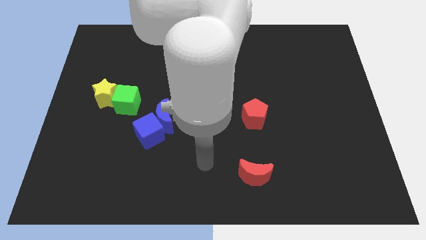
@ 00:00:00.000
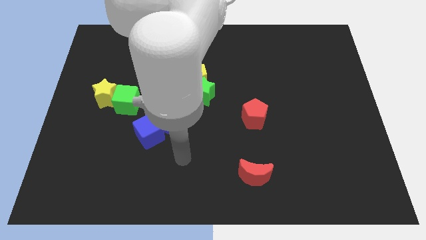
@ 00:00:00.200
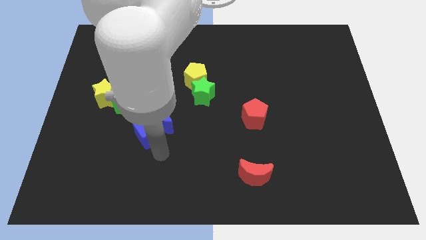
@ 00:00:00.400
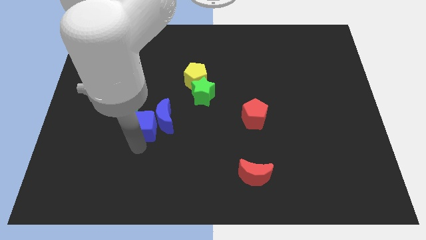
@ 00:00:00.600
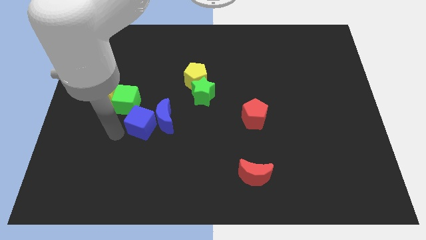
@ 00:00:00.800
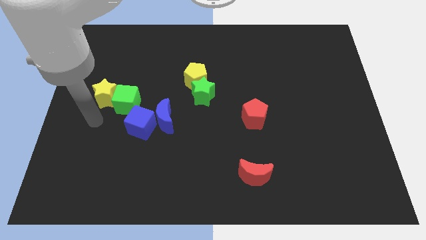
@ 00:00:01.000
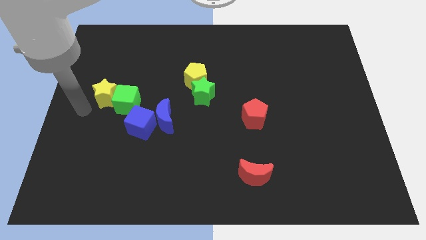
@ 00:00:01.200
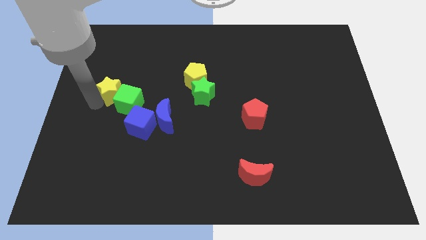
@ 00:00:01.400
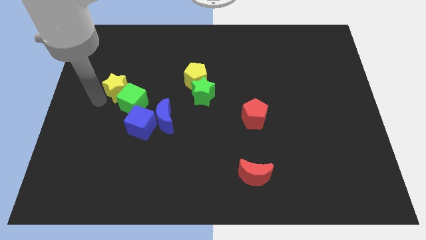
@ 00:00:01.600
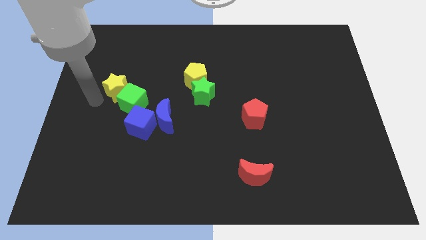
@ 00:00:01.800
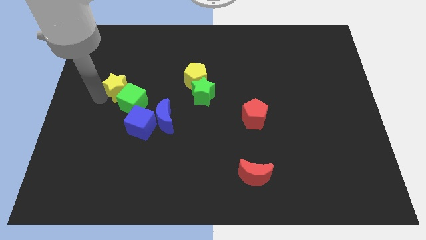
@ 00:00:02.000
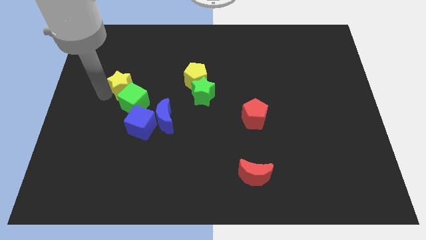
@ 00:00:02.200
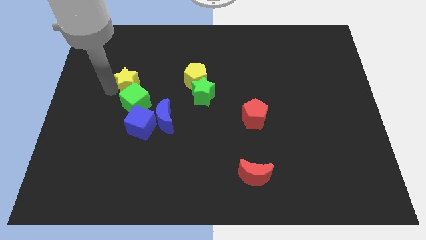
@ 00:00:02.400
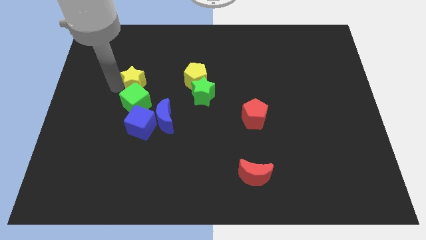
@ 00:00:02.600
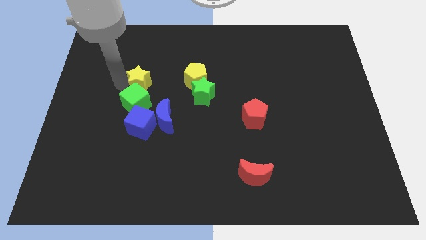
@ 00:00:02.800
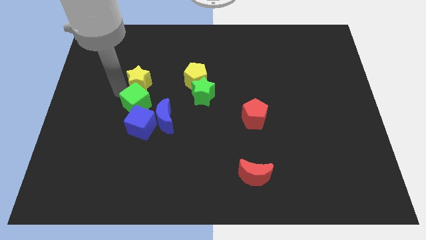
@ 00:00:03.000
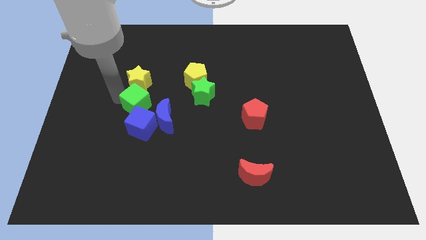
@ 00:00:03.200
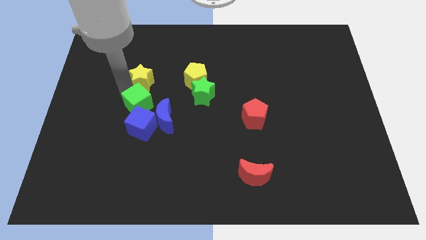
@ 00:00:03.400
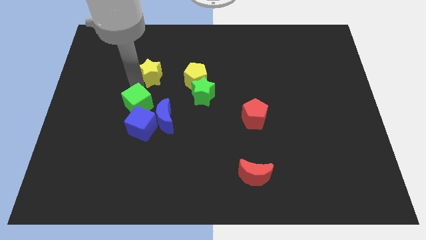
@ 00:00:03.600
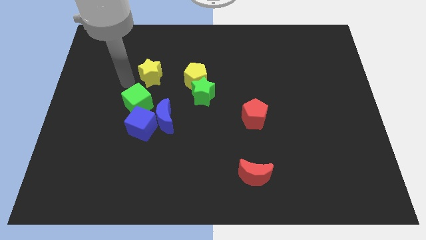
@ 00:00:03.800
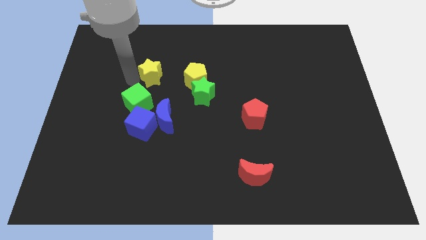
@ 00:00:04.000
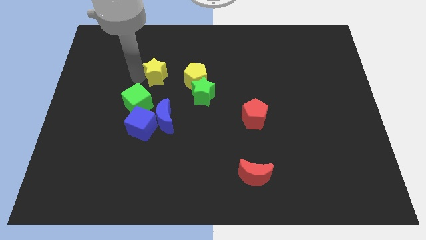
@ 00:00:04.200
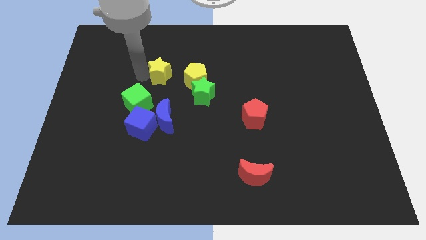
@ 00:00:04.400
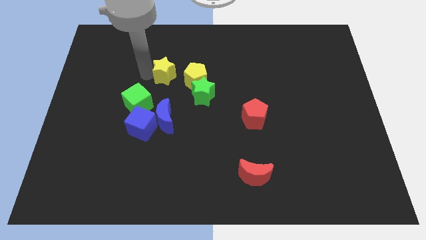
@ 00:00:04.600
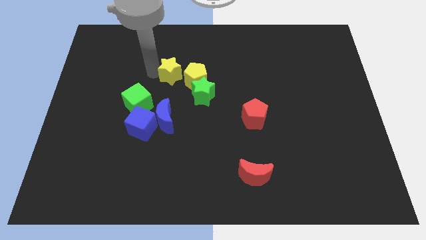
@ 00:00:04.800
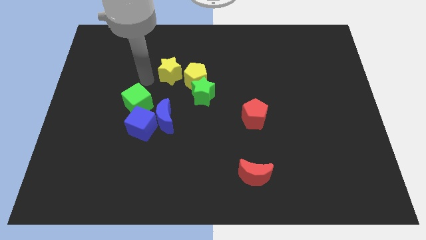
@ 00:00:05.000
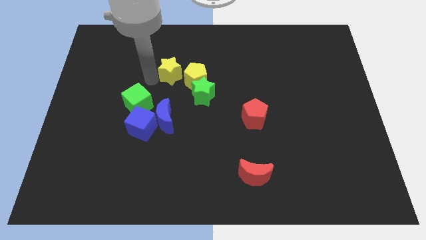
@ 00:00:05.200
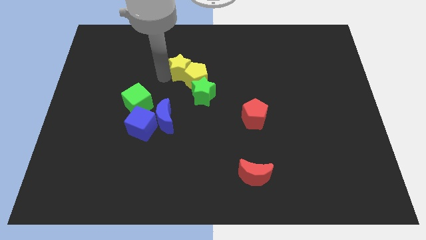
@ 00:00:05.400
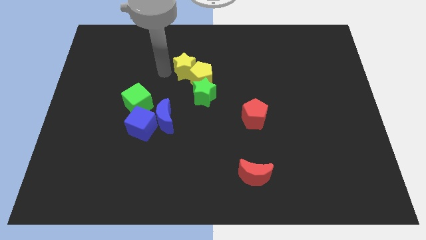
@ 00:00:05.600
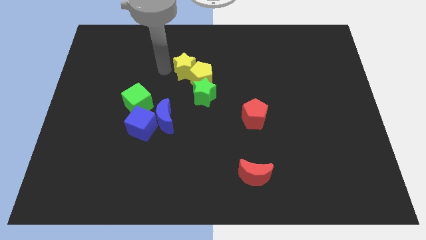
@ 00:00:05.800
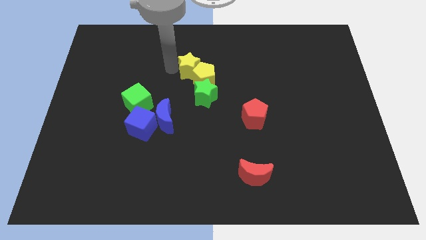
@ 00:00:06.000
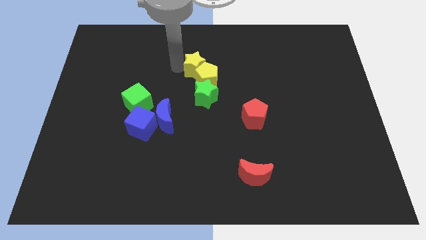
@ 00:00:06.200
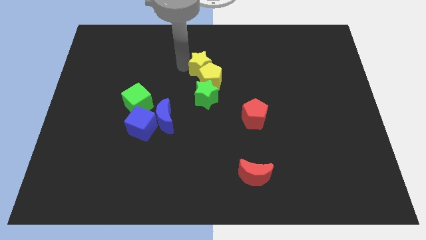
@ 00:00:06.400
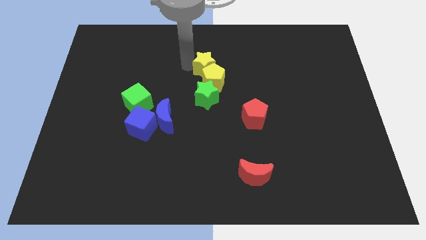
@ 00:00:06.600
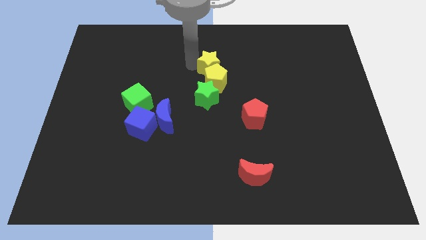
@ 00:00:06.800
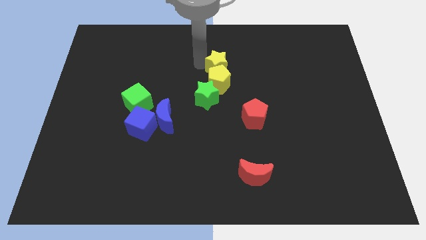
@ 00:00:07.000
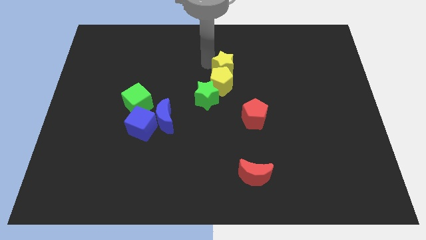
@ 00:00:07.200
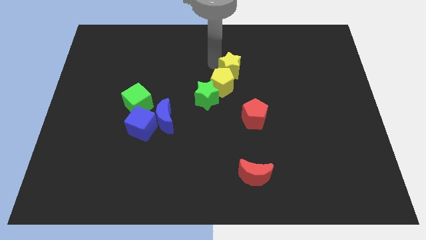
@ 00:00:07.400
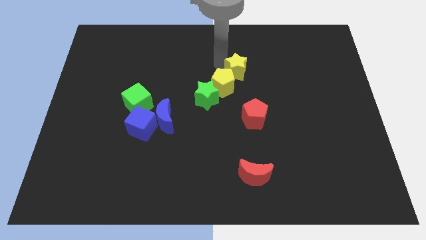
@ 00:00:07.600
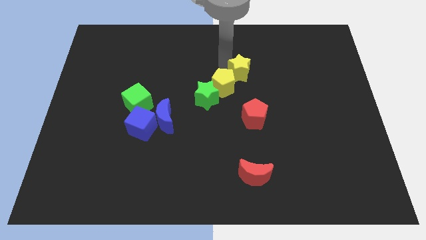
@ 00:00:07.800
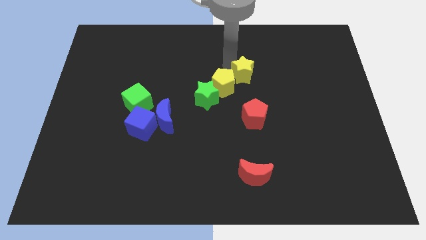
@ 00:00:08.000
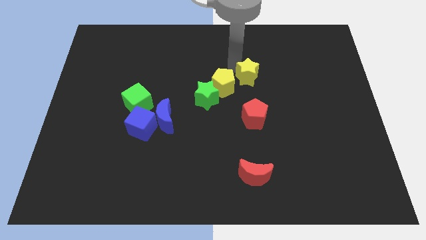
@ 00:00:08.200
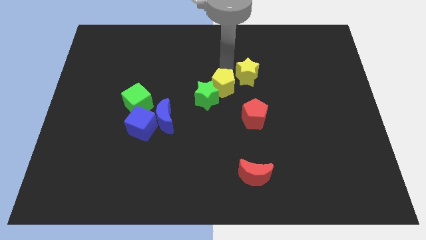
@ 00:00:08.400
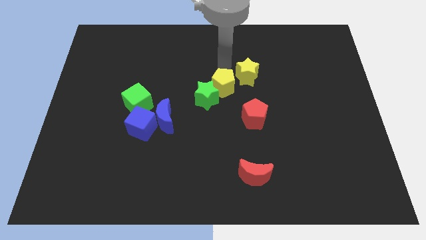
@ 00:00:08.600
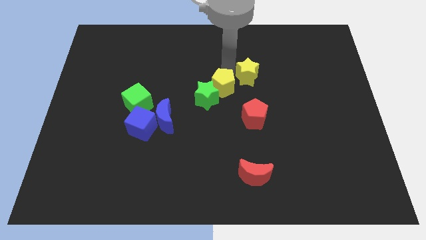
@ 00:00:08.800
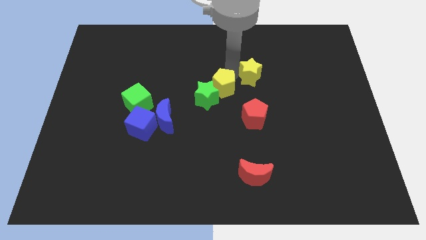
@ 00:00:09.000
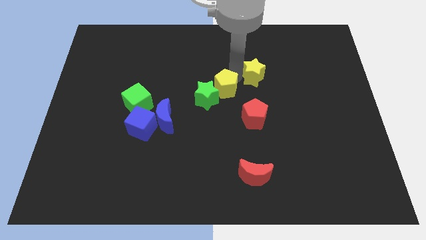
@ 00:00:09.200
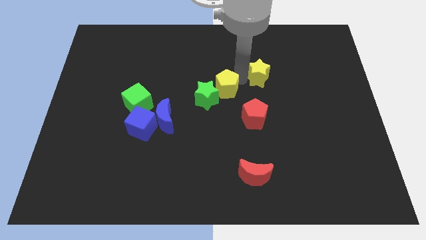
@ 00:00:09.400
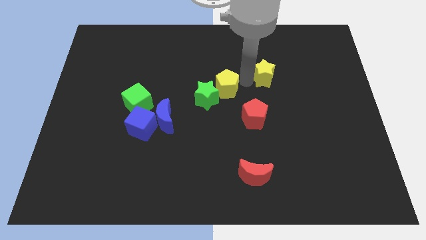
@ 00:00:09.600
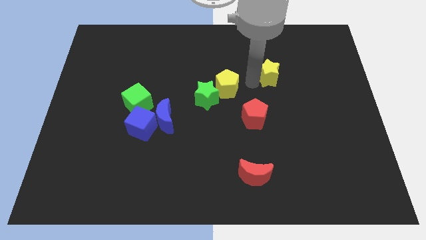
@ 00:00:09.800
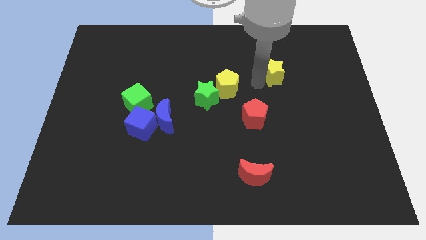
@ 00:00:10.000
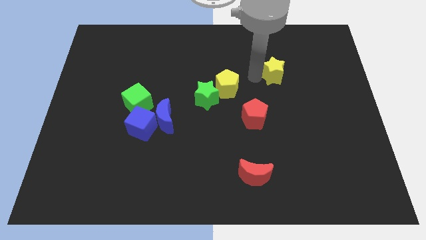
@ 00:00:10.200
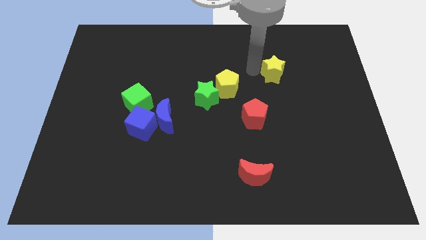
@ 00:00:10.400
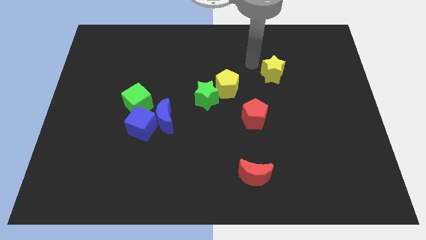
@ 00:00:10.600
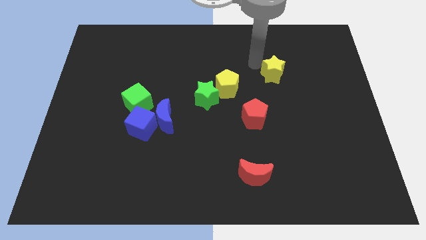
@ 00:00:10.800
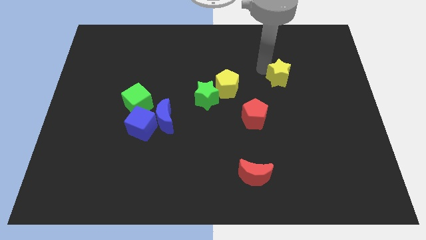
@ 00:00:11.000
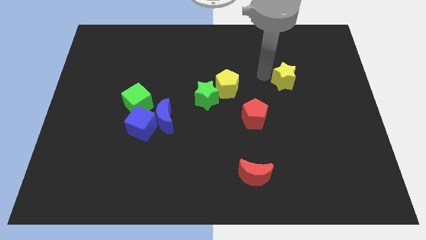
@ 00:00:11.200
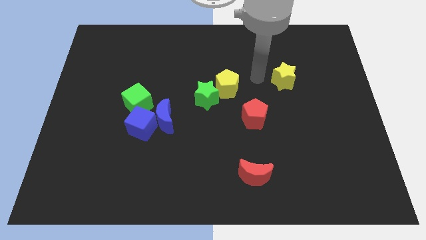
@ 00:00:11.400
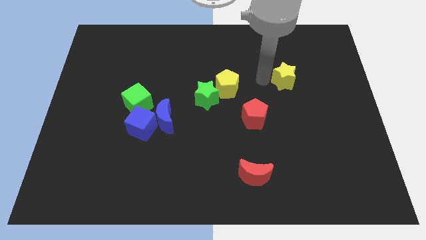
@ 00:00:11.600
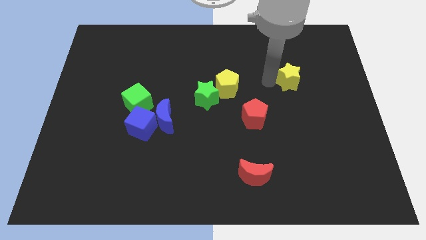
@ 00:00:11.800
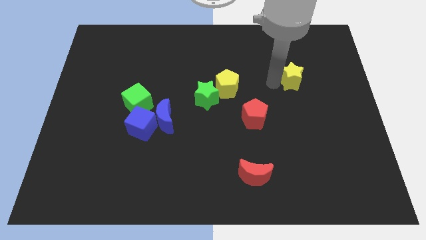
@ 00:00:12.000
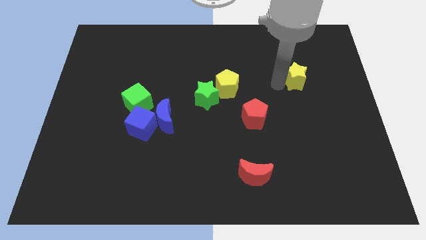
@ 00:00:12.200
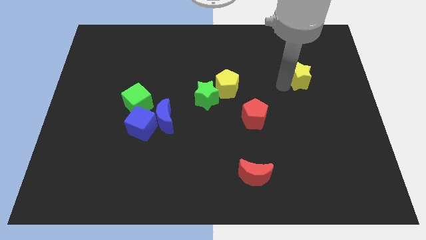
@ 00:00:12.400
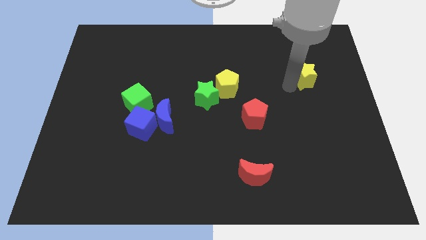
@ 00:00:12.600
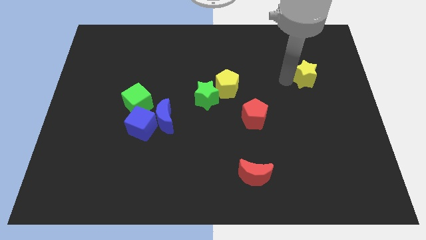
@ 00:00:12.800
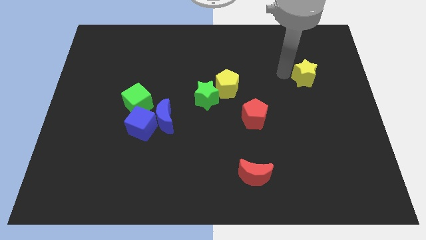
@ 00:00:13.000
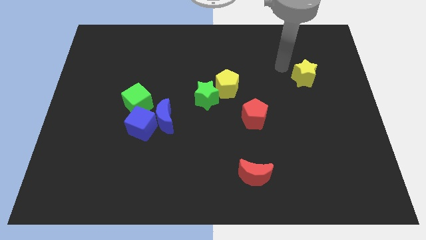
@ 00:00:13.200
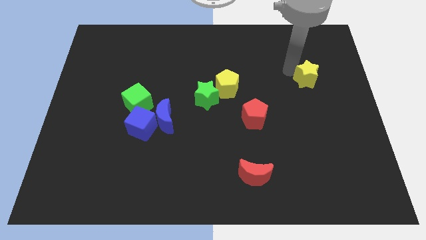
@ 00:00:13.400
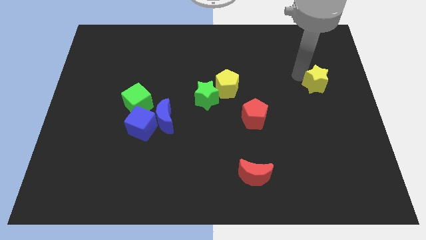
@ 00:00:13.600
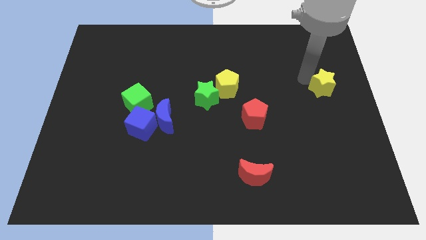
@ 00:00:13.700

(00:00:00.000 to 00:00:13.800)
put the yellow star to the right side of the board
